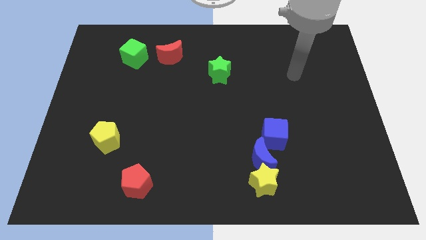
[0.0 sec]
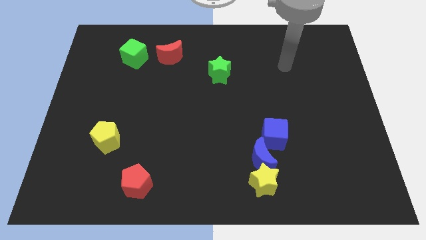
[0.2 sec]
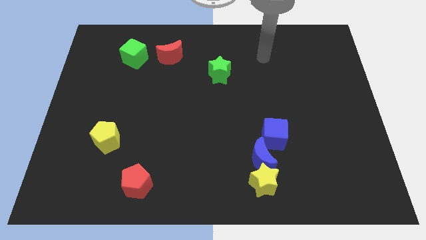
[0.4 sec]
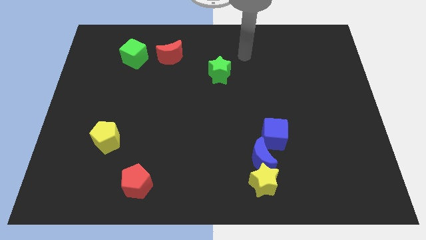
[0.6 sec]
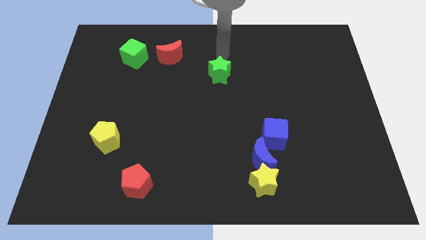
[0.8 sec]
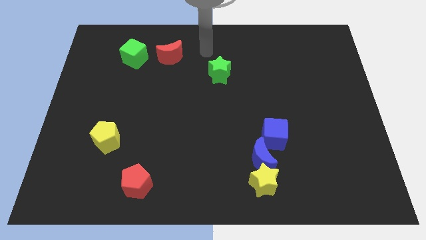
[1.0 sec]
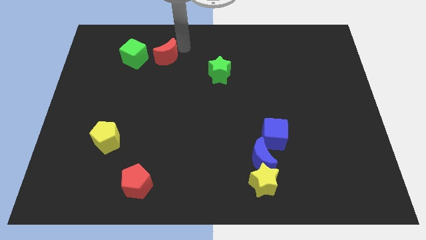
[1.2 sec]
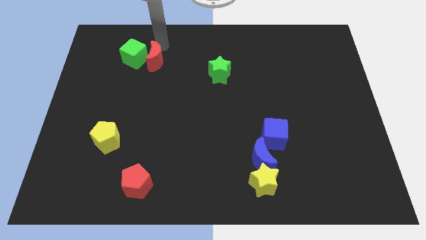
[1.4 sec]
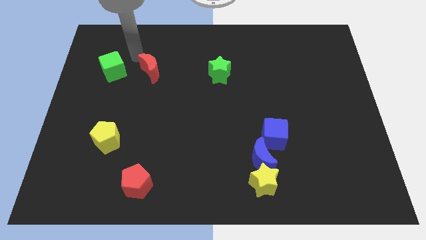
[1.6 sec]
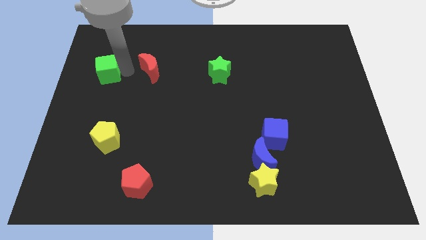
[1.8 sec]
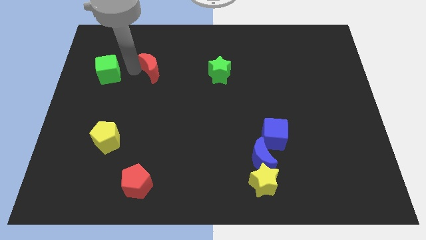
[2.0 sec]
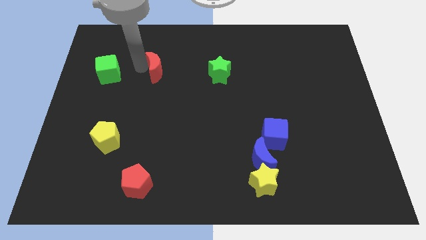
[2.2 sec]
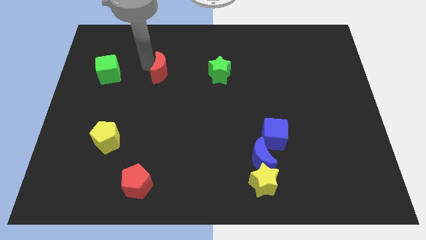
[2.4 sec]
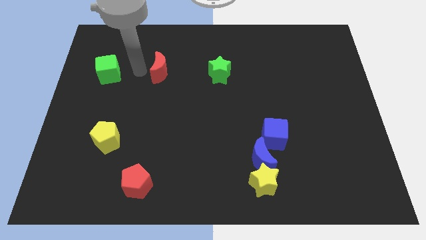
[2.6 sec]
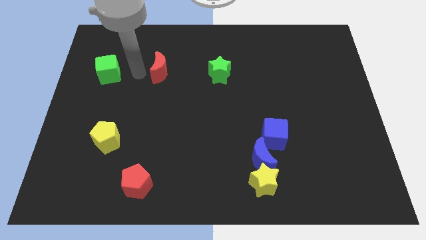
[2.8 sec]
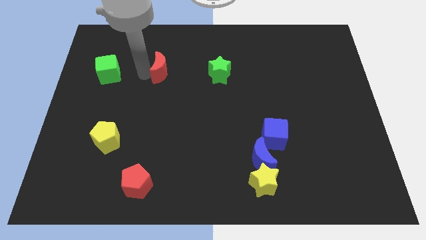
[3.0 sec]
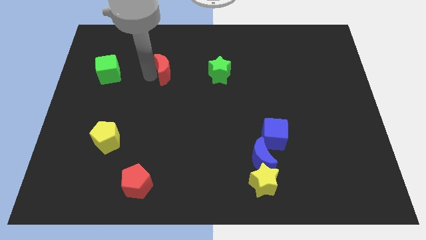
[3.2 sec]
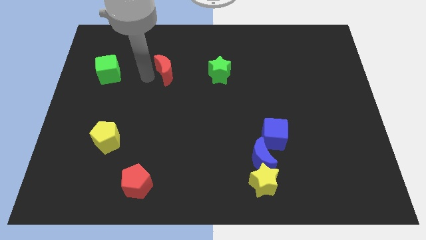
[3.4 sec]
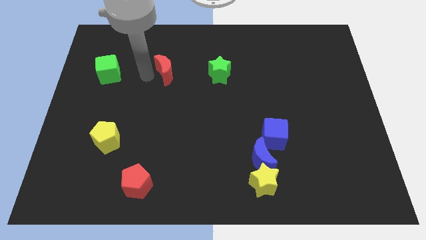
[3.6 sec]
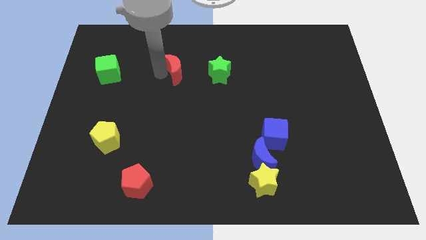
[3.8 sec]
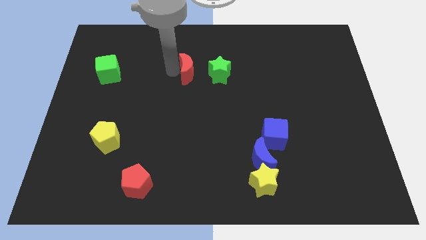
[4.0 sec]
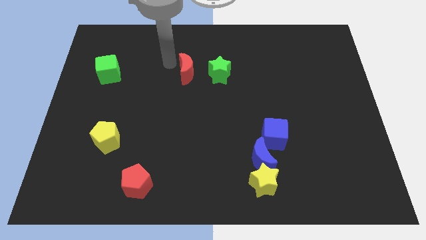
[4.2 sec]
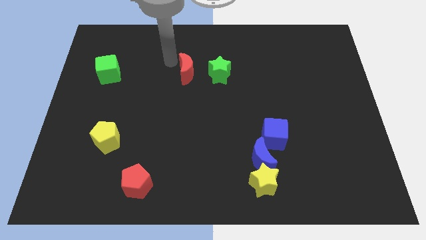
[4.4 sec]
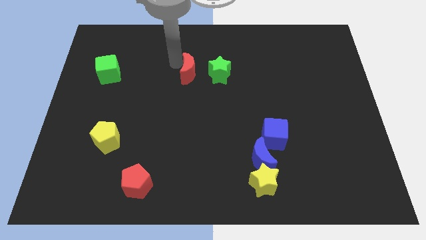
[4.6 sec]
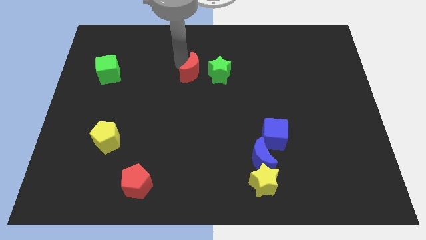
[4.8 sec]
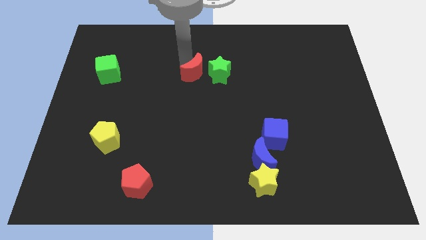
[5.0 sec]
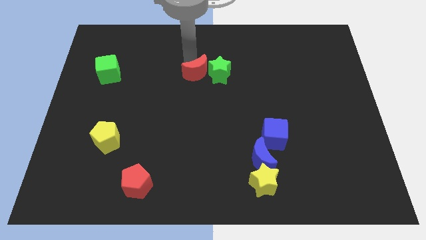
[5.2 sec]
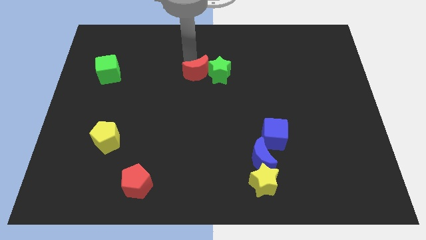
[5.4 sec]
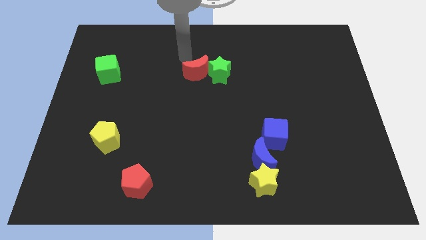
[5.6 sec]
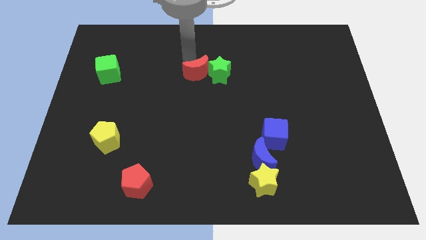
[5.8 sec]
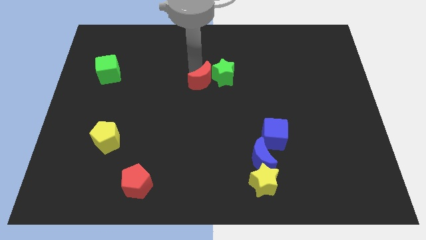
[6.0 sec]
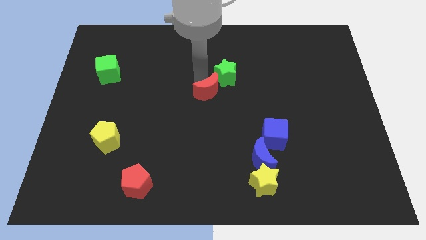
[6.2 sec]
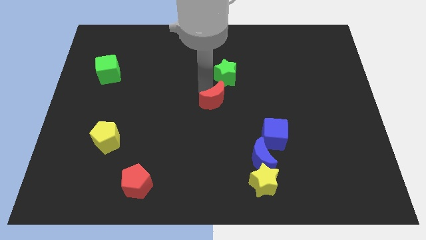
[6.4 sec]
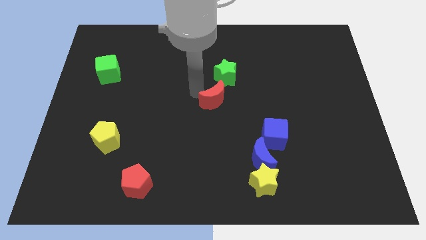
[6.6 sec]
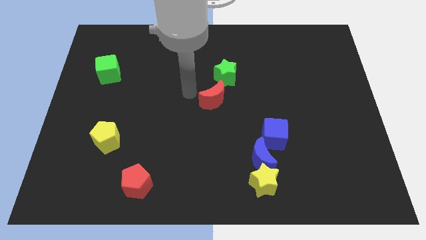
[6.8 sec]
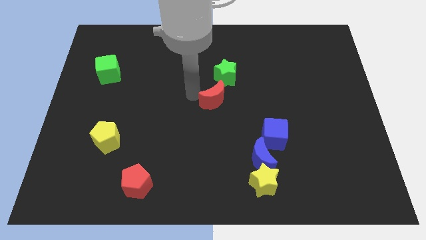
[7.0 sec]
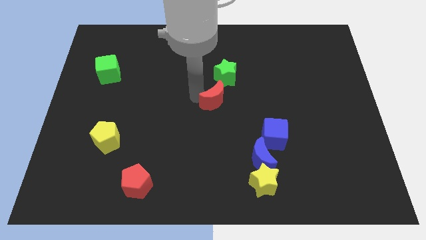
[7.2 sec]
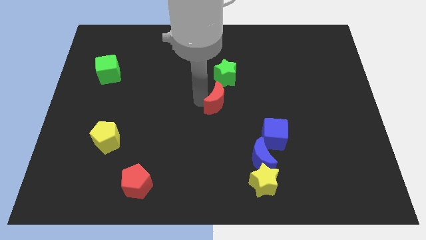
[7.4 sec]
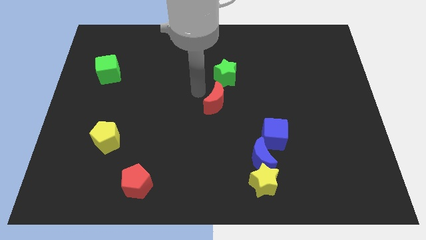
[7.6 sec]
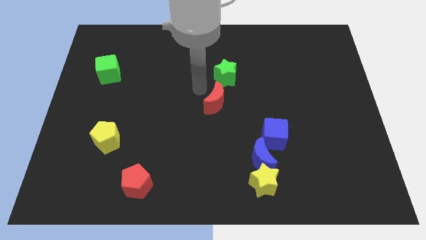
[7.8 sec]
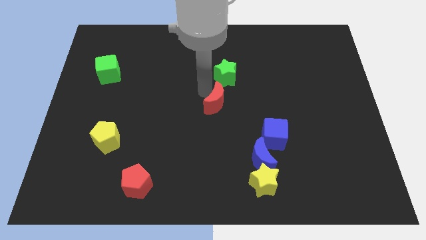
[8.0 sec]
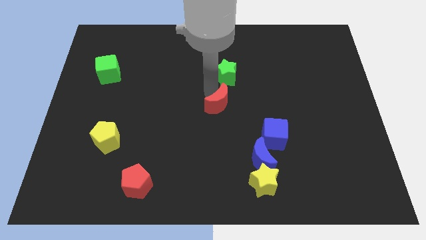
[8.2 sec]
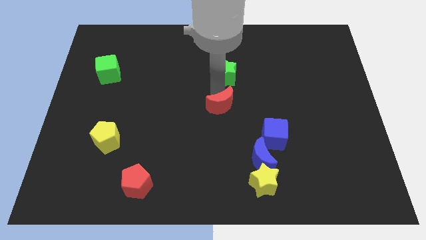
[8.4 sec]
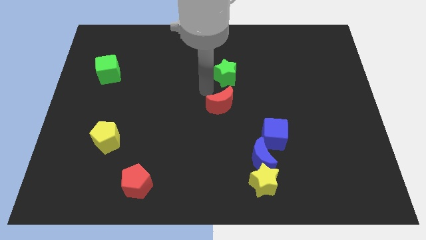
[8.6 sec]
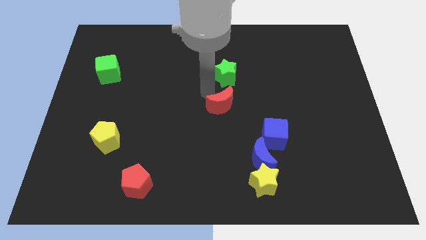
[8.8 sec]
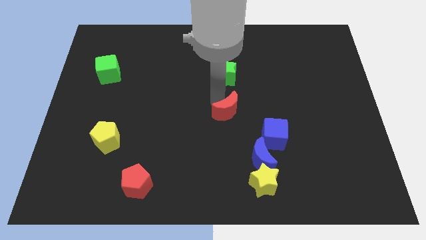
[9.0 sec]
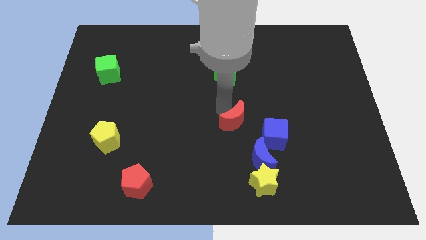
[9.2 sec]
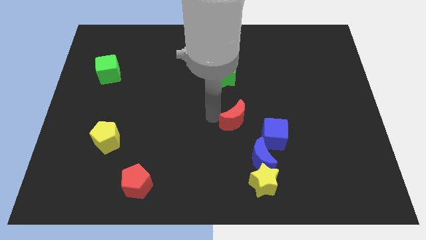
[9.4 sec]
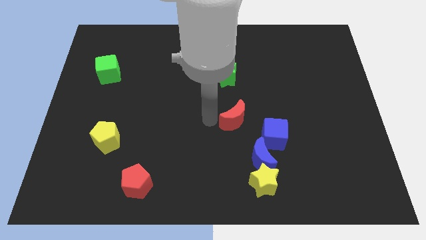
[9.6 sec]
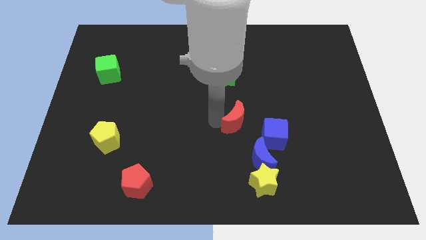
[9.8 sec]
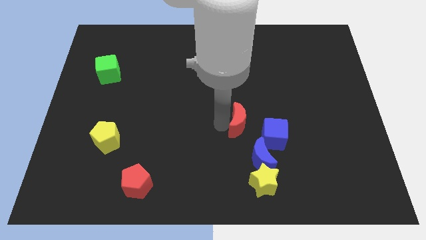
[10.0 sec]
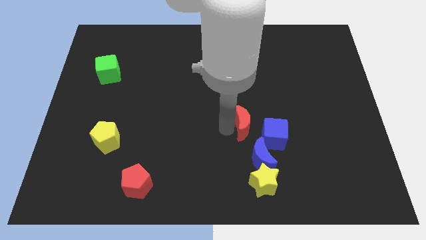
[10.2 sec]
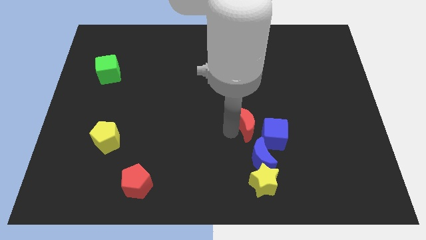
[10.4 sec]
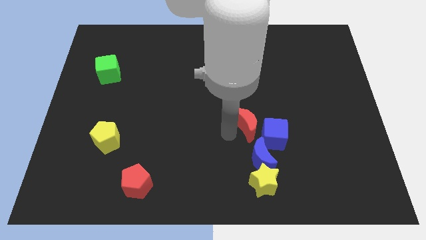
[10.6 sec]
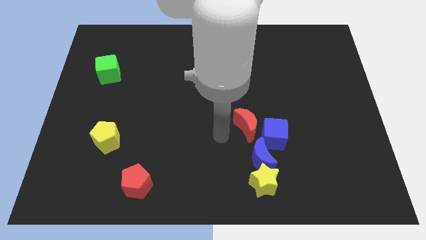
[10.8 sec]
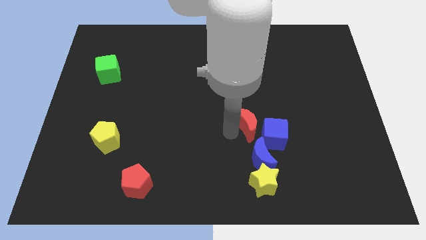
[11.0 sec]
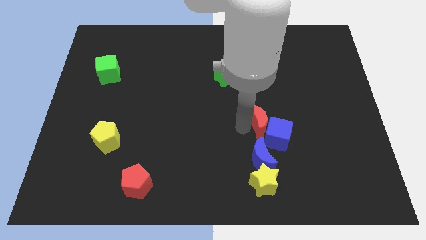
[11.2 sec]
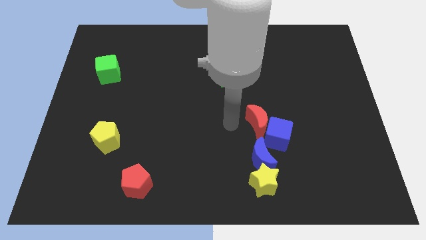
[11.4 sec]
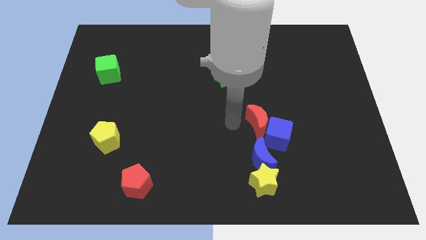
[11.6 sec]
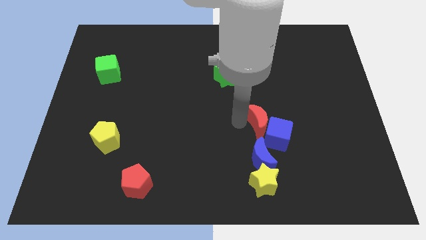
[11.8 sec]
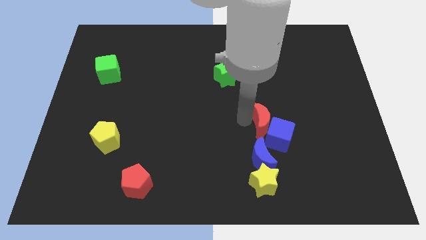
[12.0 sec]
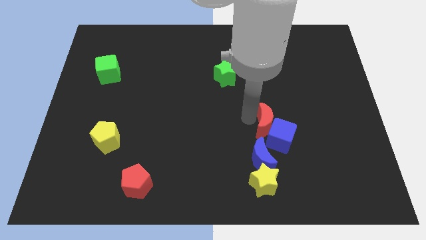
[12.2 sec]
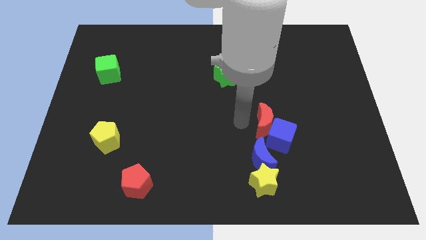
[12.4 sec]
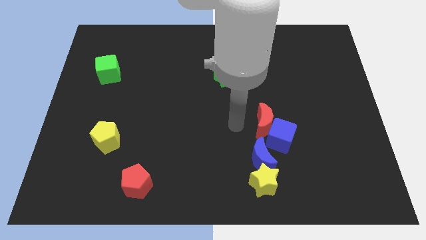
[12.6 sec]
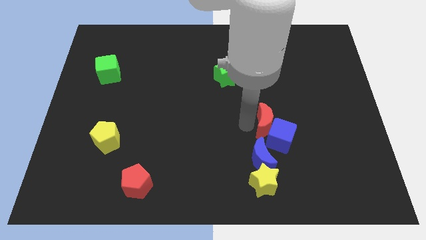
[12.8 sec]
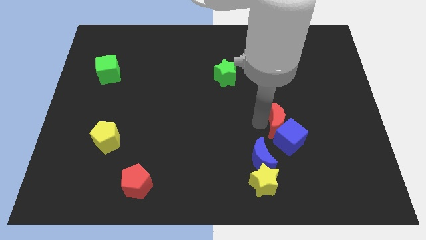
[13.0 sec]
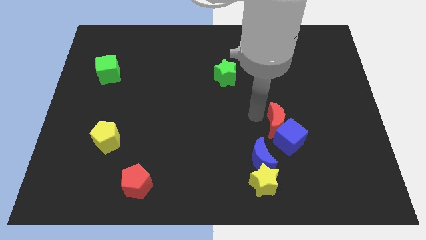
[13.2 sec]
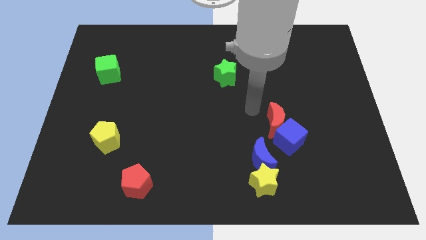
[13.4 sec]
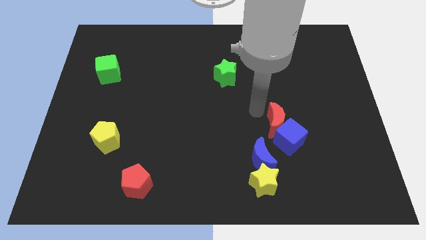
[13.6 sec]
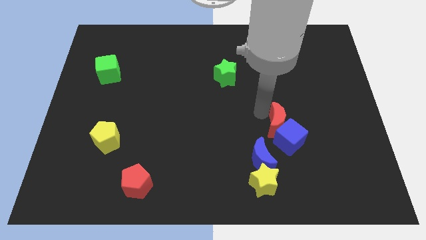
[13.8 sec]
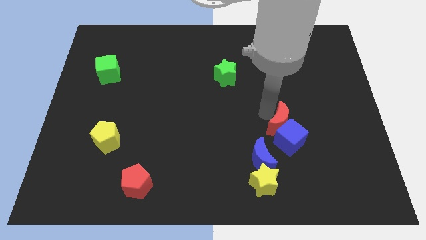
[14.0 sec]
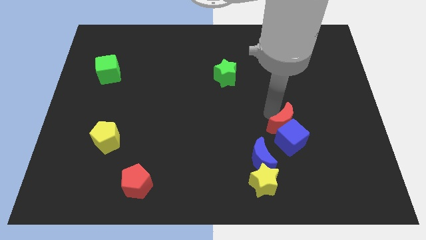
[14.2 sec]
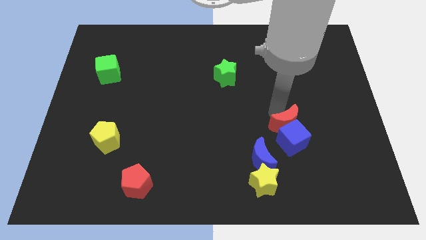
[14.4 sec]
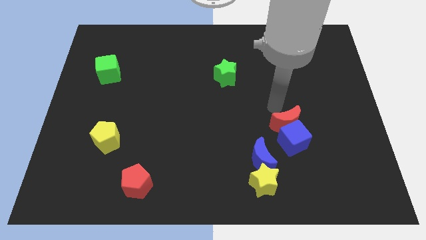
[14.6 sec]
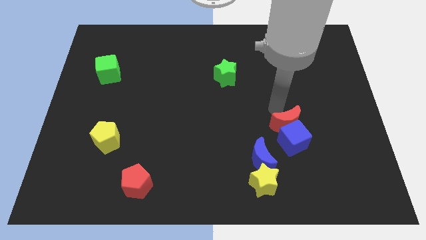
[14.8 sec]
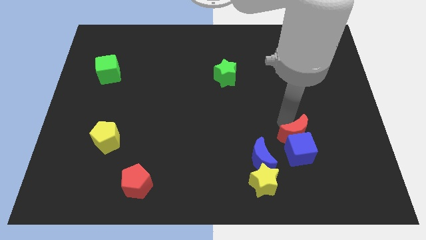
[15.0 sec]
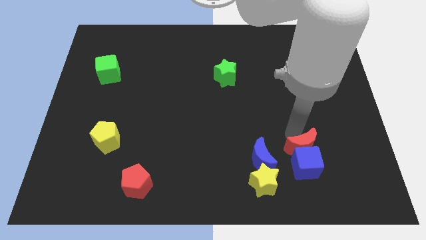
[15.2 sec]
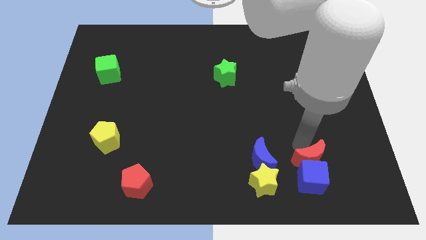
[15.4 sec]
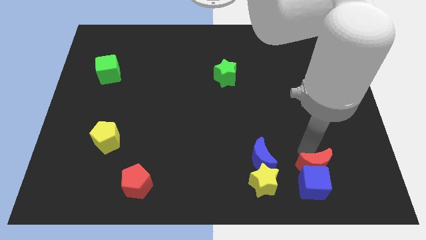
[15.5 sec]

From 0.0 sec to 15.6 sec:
put the red moon to the right side of the yellow star
